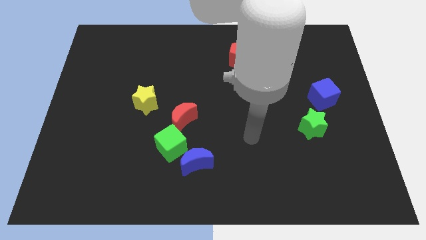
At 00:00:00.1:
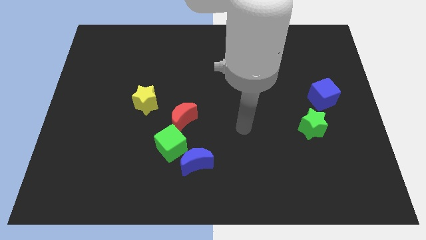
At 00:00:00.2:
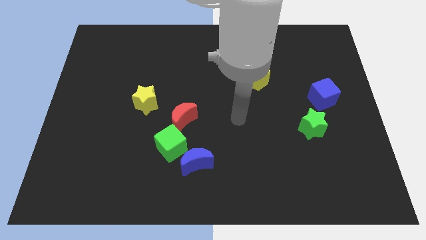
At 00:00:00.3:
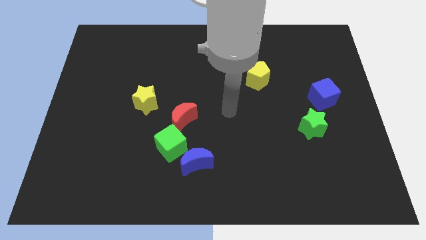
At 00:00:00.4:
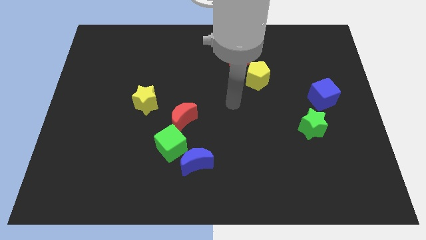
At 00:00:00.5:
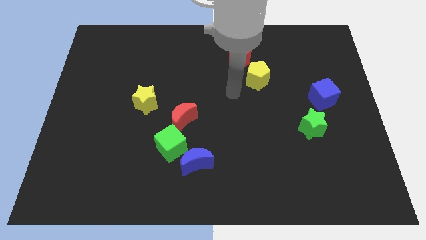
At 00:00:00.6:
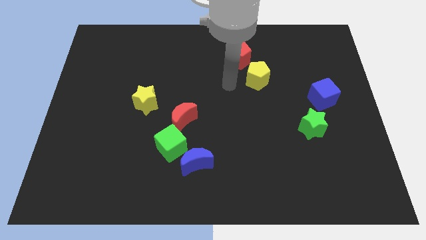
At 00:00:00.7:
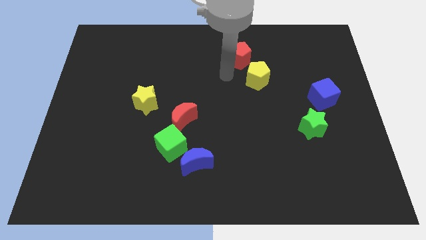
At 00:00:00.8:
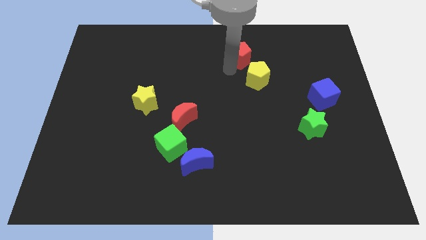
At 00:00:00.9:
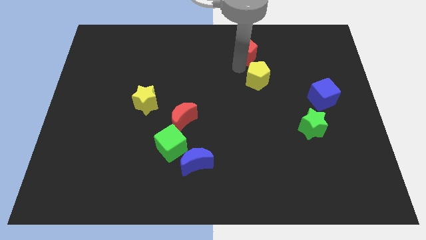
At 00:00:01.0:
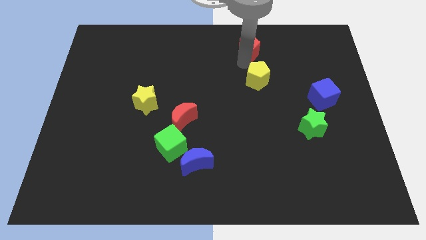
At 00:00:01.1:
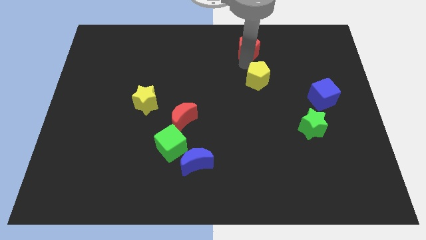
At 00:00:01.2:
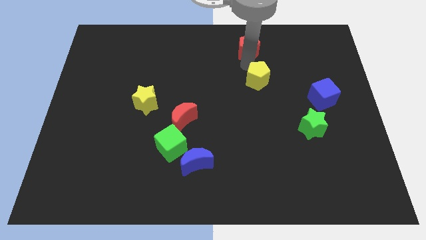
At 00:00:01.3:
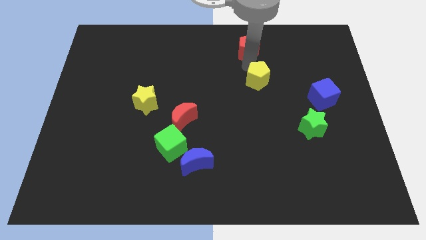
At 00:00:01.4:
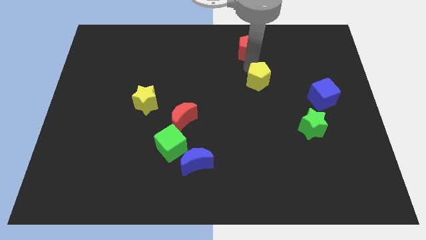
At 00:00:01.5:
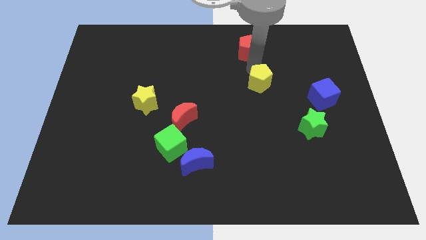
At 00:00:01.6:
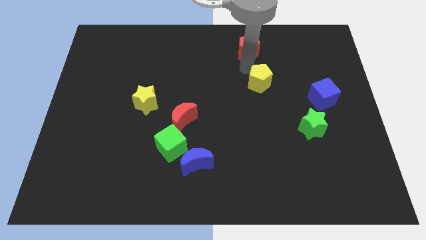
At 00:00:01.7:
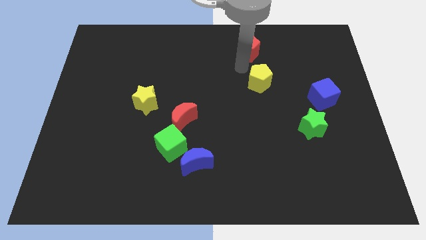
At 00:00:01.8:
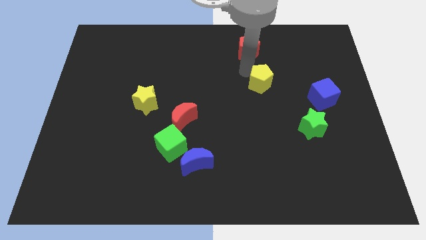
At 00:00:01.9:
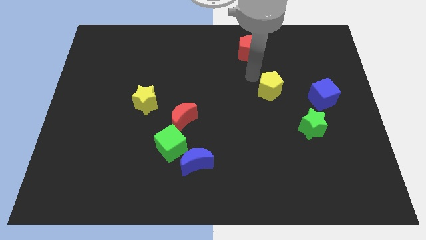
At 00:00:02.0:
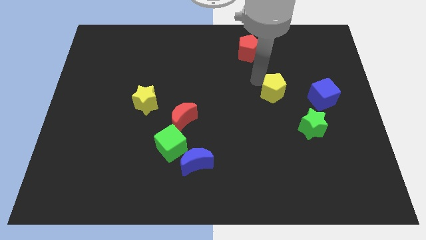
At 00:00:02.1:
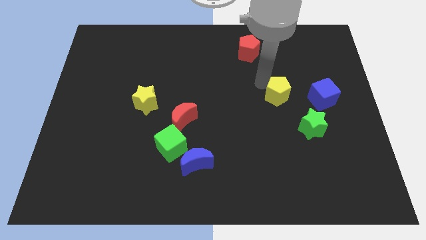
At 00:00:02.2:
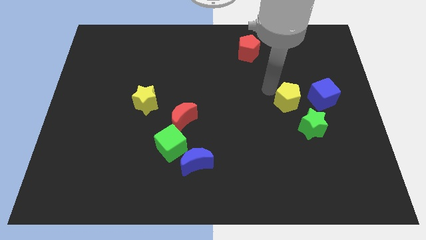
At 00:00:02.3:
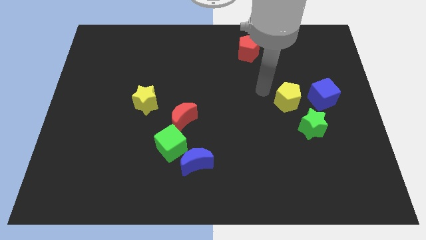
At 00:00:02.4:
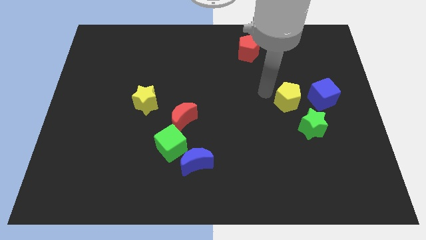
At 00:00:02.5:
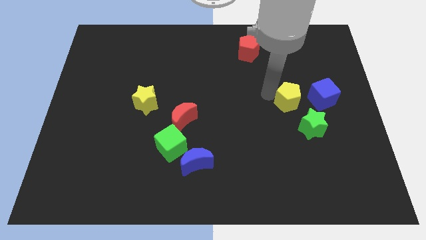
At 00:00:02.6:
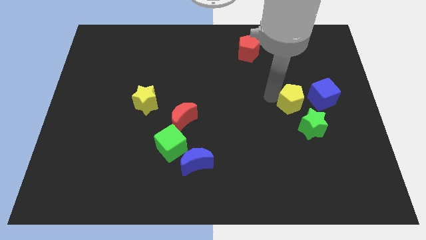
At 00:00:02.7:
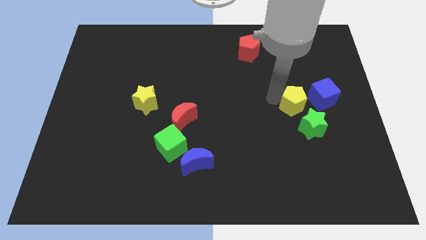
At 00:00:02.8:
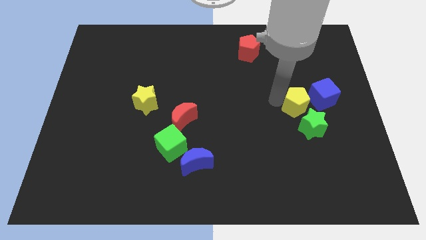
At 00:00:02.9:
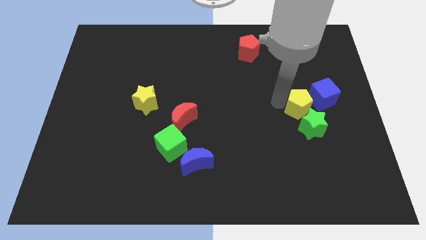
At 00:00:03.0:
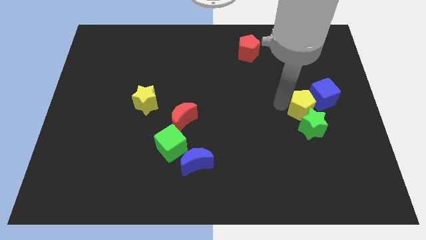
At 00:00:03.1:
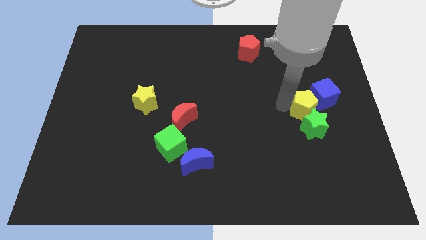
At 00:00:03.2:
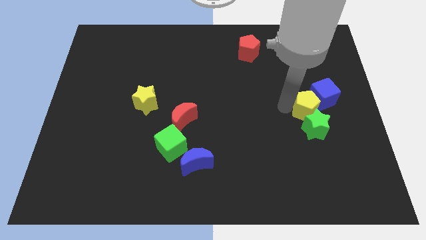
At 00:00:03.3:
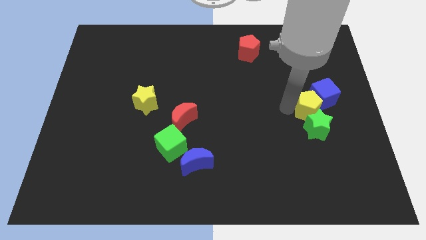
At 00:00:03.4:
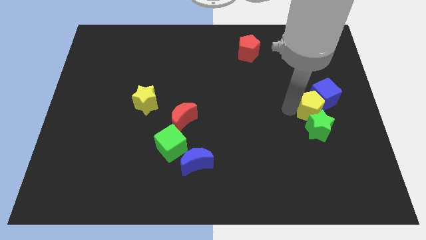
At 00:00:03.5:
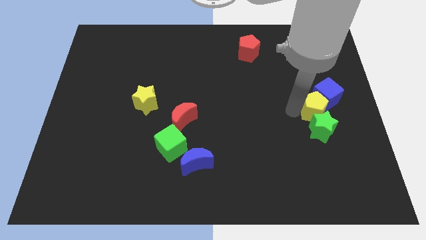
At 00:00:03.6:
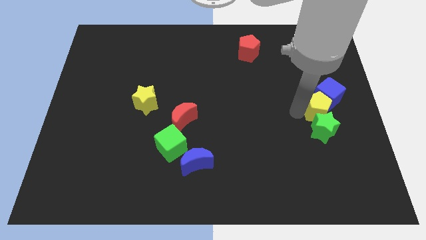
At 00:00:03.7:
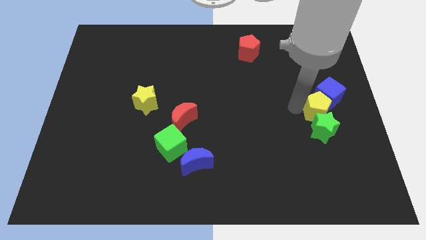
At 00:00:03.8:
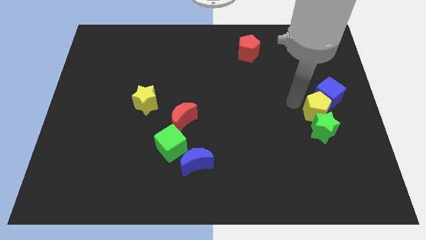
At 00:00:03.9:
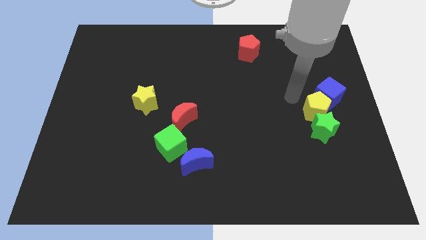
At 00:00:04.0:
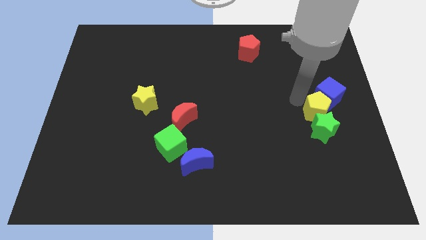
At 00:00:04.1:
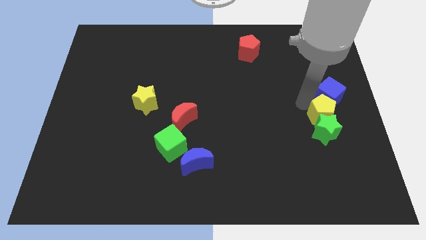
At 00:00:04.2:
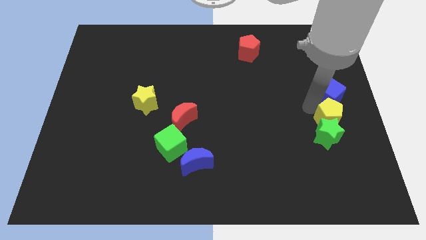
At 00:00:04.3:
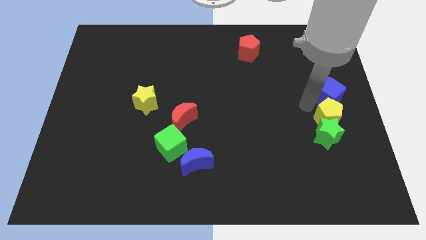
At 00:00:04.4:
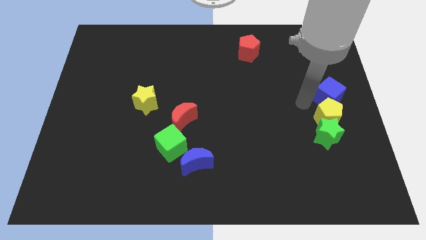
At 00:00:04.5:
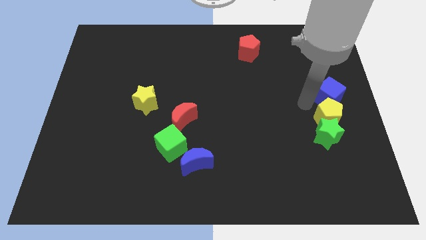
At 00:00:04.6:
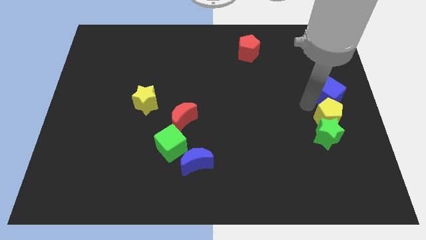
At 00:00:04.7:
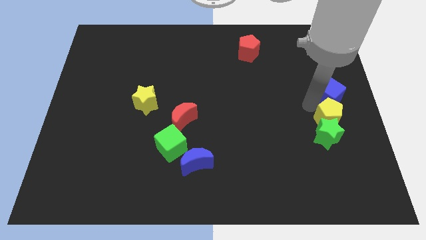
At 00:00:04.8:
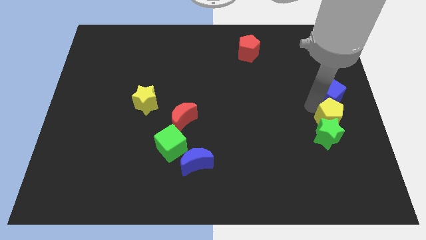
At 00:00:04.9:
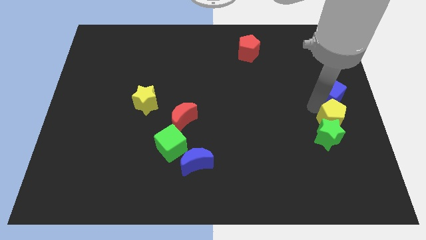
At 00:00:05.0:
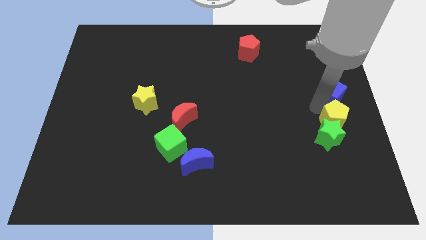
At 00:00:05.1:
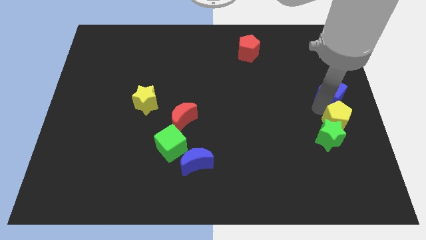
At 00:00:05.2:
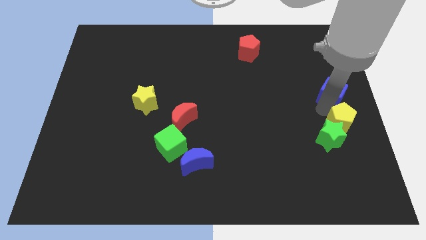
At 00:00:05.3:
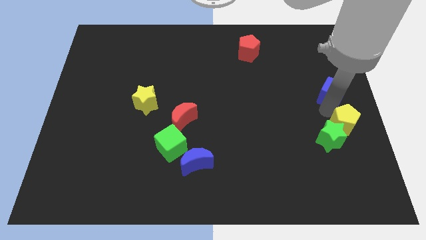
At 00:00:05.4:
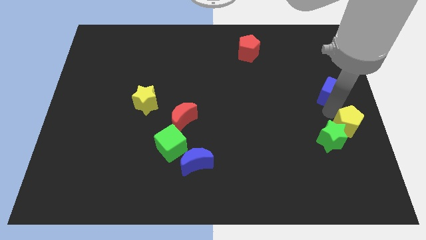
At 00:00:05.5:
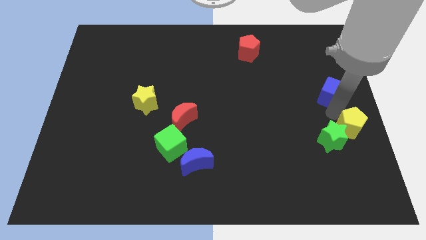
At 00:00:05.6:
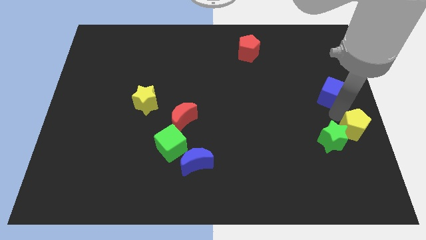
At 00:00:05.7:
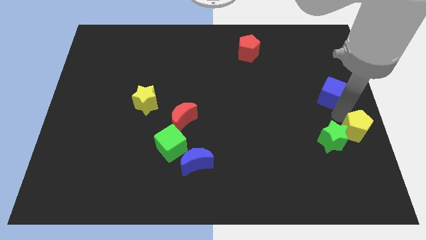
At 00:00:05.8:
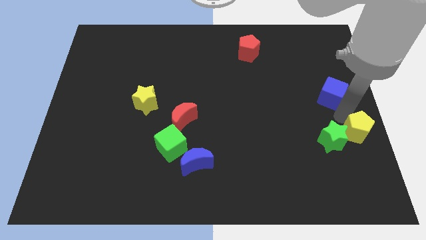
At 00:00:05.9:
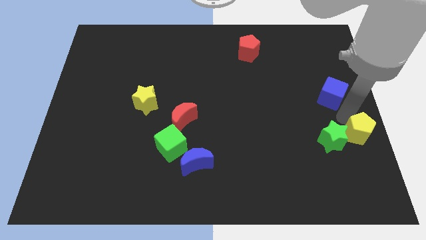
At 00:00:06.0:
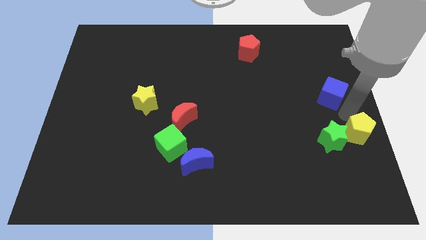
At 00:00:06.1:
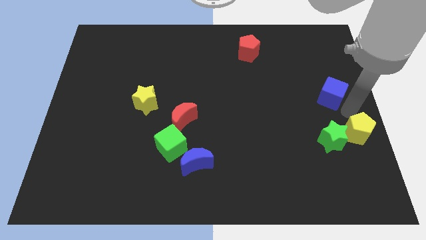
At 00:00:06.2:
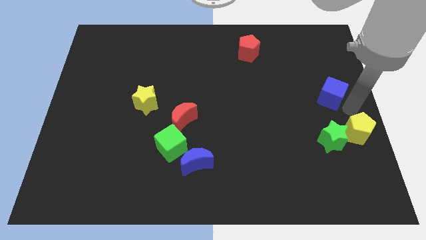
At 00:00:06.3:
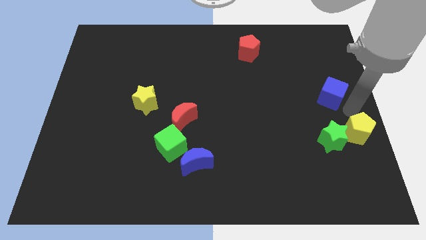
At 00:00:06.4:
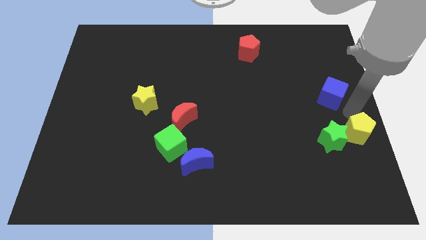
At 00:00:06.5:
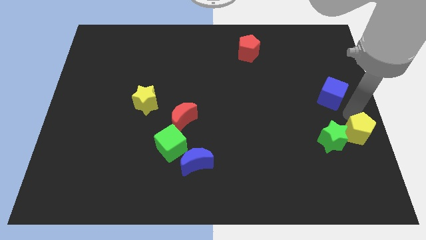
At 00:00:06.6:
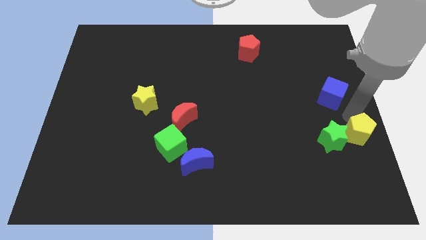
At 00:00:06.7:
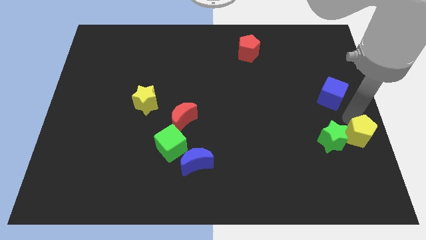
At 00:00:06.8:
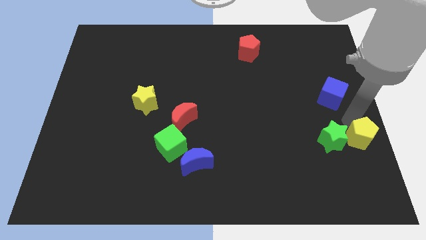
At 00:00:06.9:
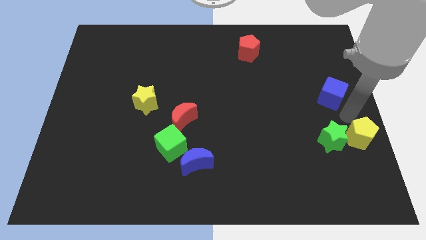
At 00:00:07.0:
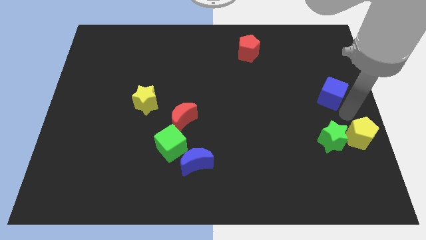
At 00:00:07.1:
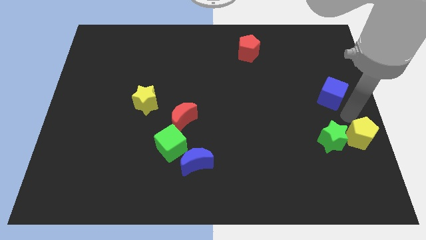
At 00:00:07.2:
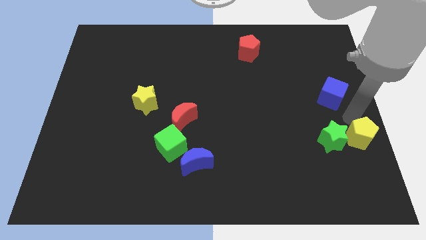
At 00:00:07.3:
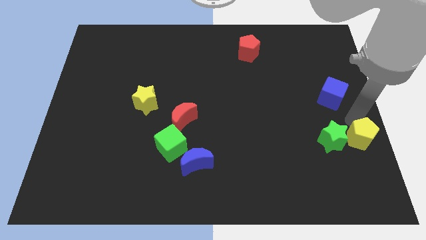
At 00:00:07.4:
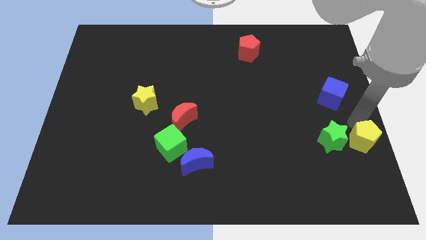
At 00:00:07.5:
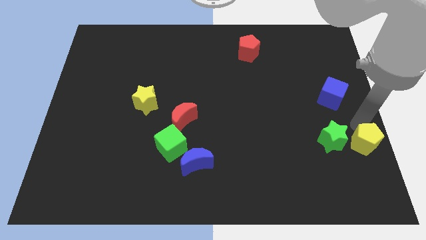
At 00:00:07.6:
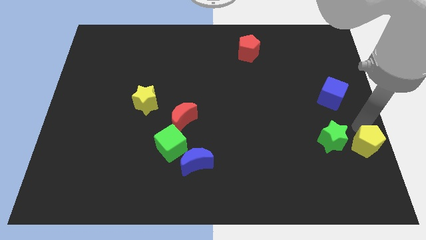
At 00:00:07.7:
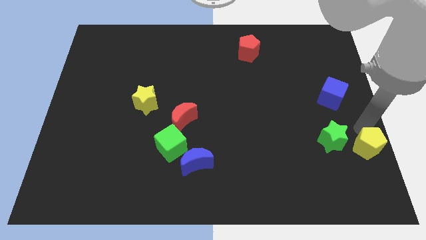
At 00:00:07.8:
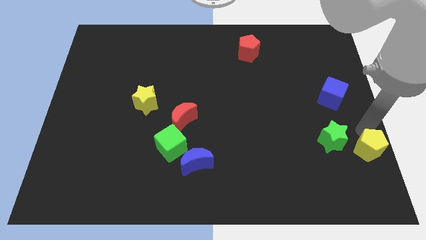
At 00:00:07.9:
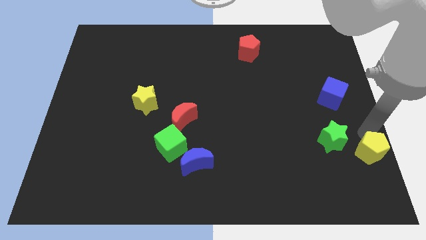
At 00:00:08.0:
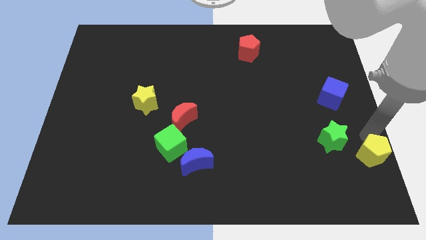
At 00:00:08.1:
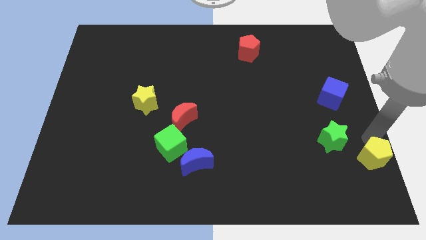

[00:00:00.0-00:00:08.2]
move the yellow pentagon to the lower right corner
